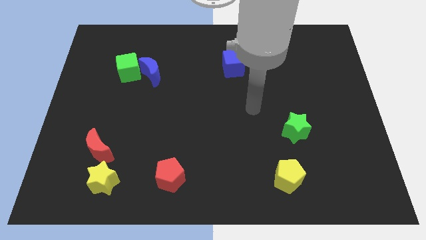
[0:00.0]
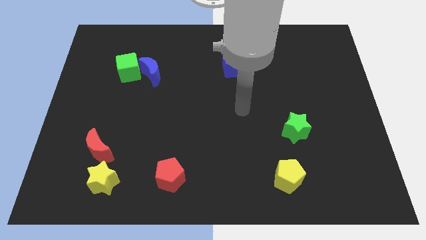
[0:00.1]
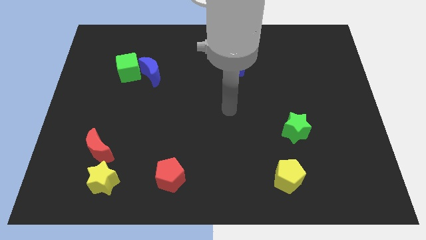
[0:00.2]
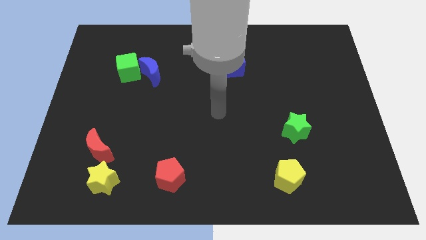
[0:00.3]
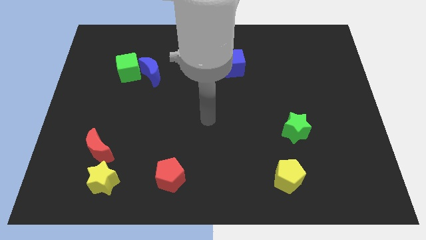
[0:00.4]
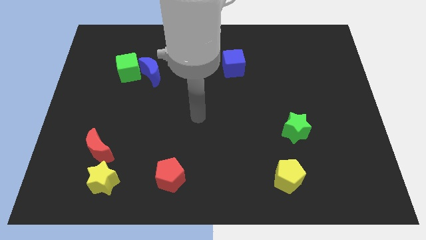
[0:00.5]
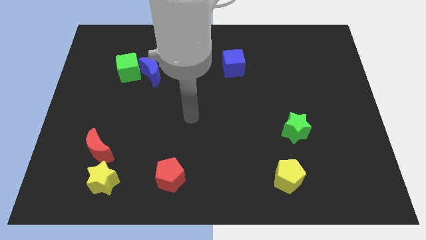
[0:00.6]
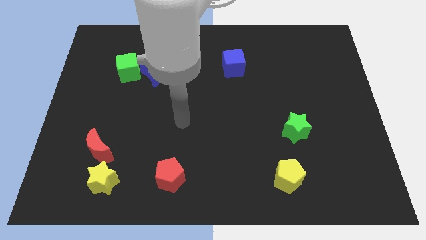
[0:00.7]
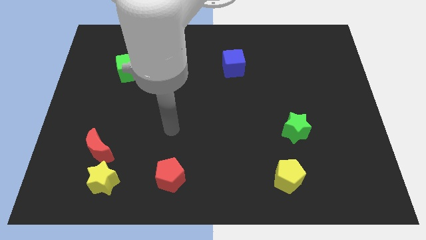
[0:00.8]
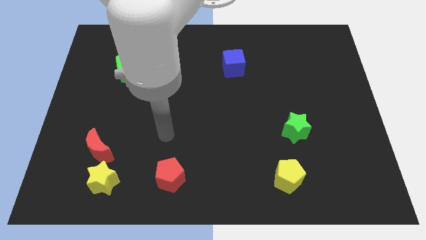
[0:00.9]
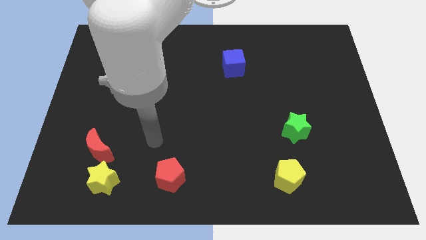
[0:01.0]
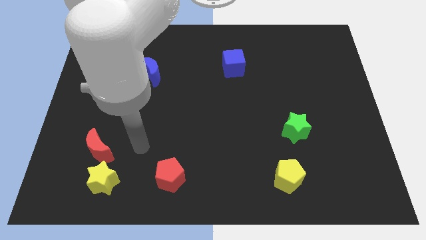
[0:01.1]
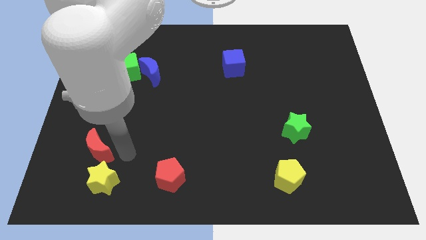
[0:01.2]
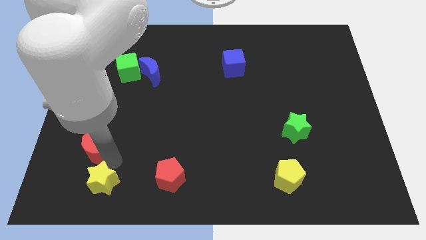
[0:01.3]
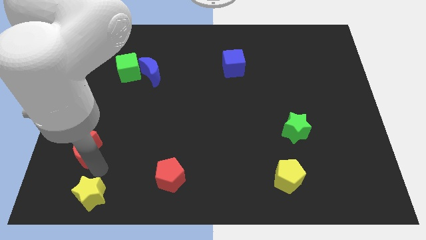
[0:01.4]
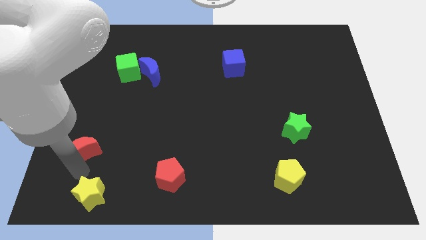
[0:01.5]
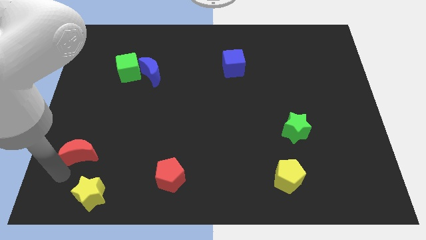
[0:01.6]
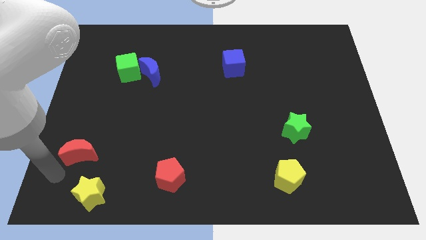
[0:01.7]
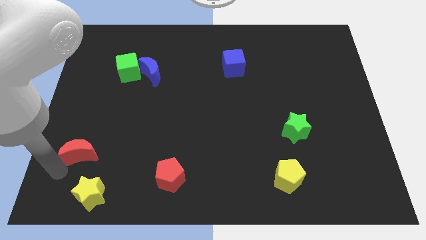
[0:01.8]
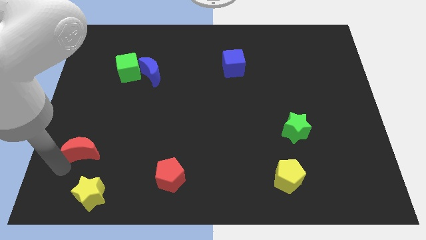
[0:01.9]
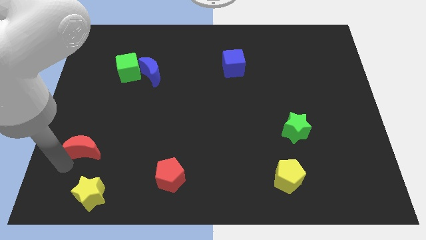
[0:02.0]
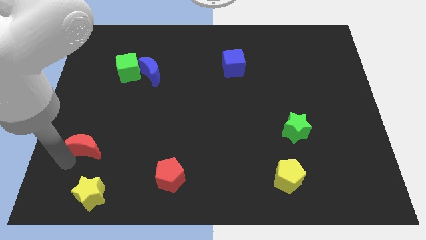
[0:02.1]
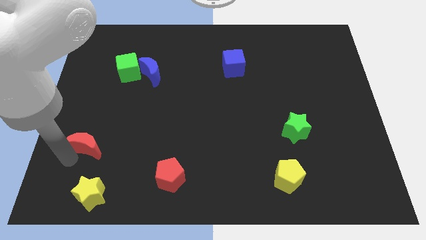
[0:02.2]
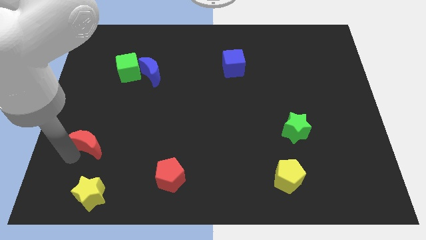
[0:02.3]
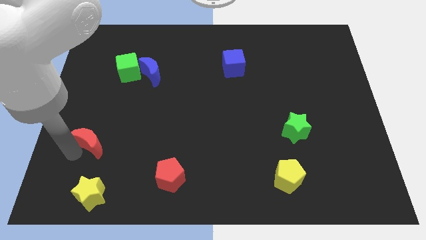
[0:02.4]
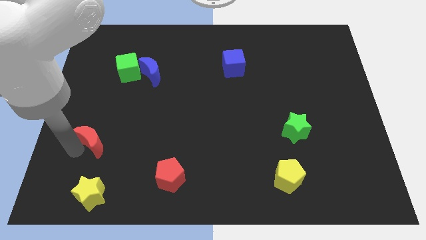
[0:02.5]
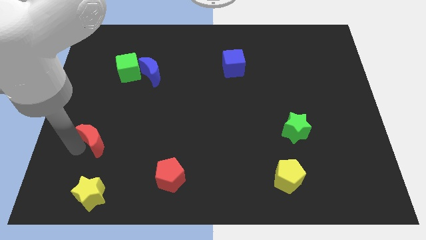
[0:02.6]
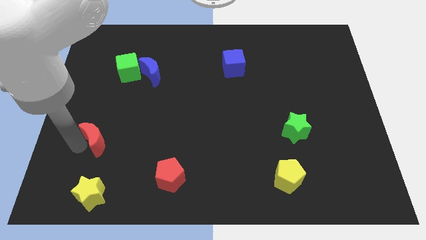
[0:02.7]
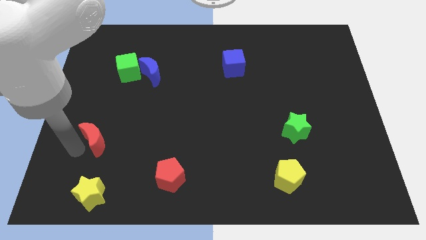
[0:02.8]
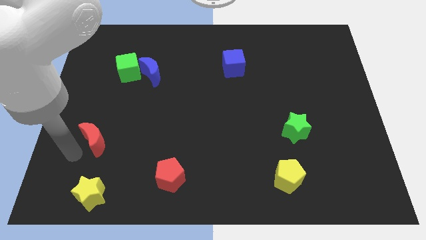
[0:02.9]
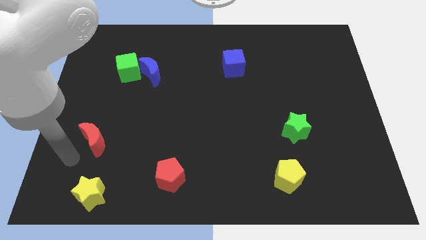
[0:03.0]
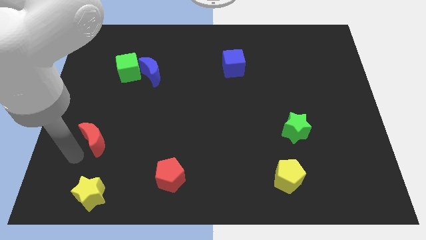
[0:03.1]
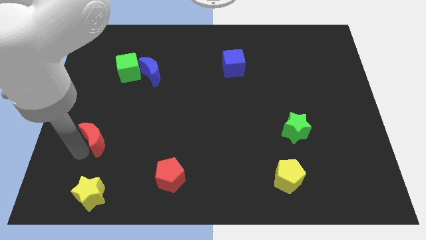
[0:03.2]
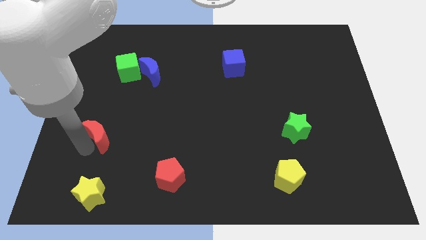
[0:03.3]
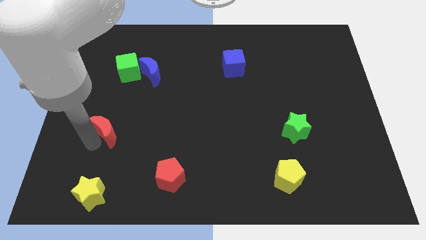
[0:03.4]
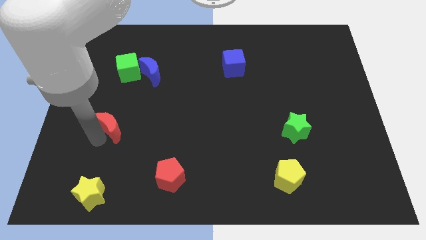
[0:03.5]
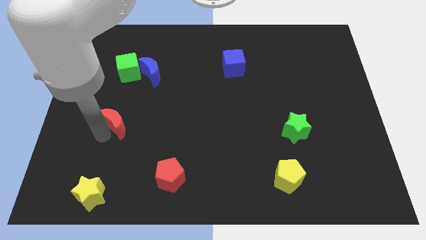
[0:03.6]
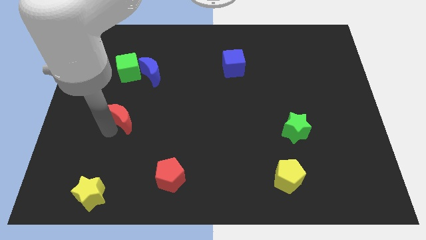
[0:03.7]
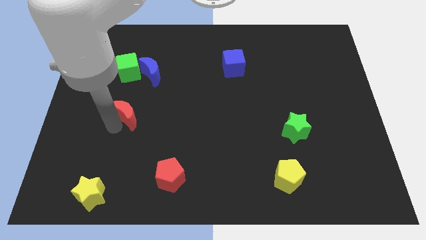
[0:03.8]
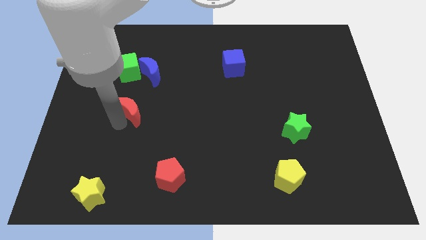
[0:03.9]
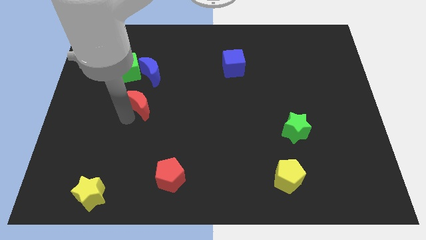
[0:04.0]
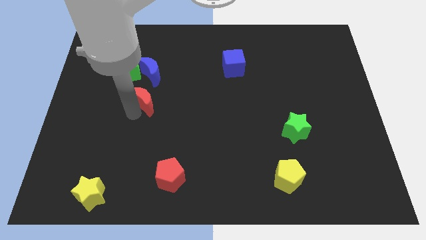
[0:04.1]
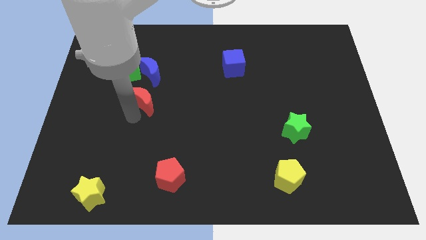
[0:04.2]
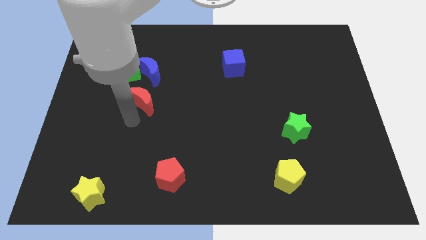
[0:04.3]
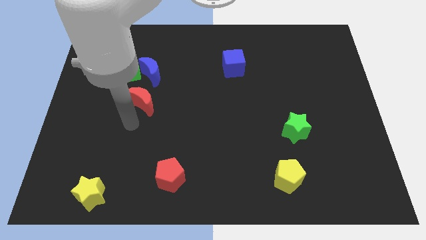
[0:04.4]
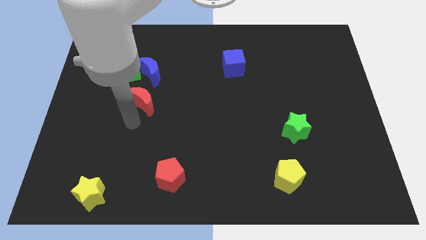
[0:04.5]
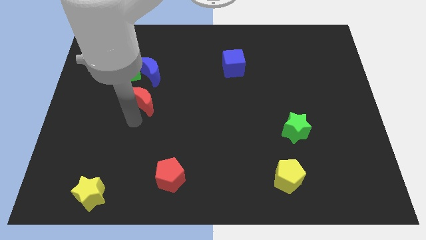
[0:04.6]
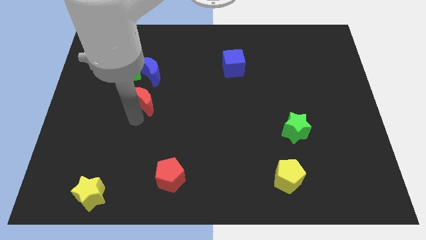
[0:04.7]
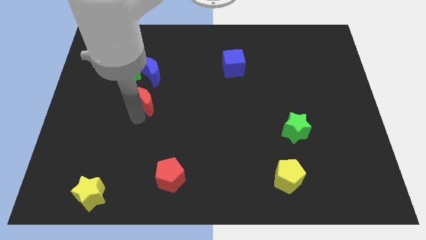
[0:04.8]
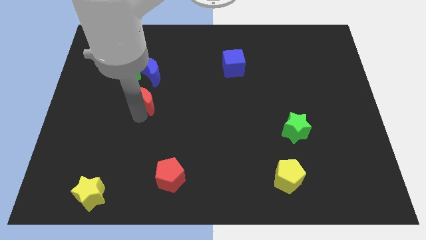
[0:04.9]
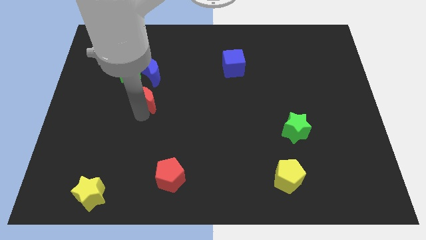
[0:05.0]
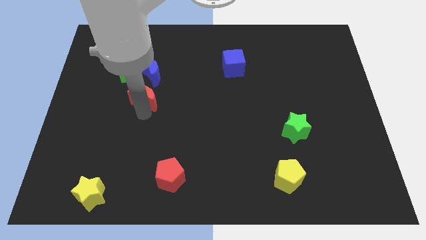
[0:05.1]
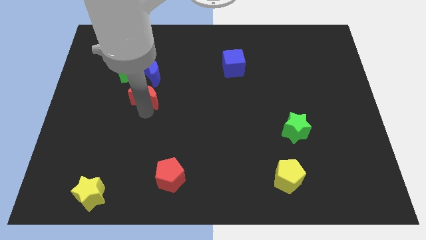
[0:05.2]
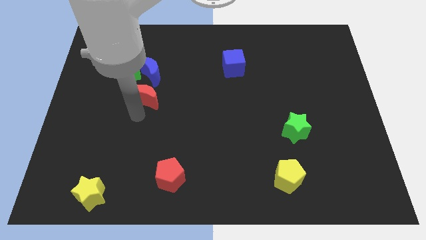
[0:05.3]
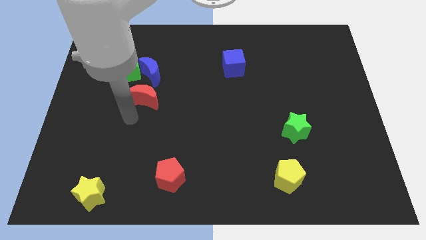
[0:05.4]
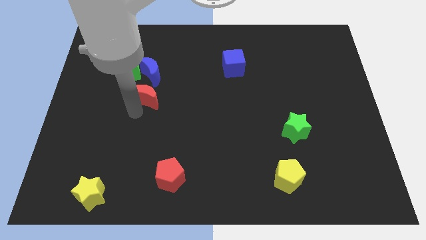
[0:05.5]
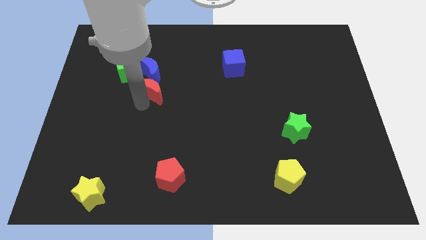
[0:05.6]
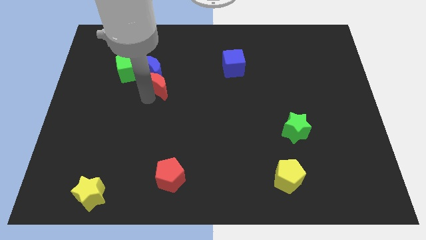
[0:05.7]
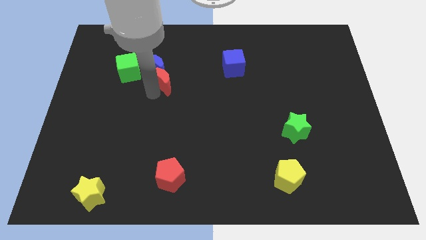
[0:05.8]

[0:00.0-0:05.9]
put the red moon to the right of the green cube

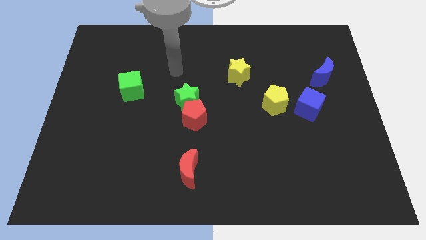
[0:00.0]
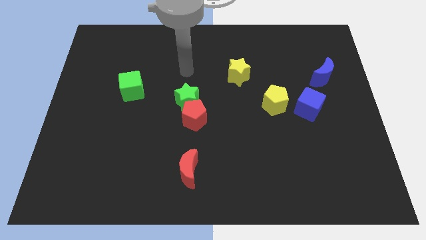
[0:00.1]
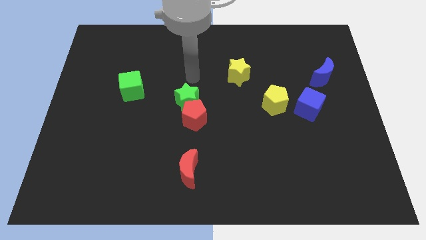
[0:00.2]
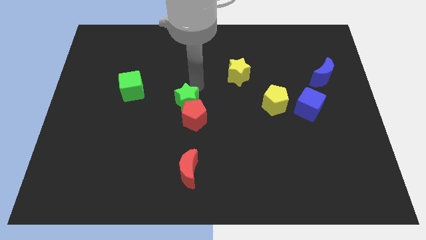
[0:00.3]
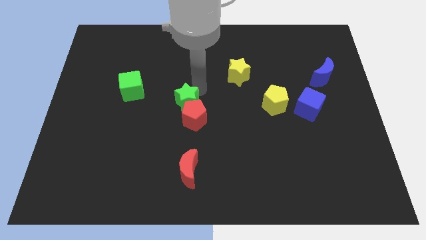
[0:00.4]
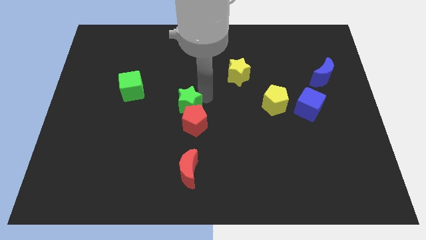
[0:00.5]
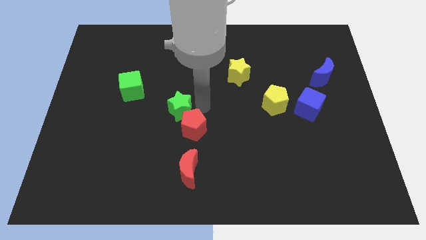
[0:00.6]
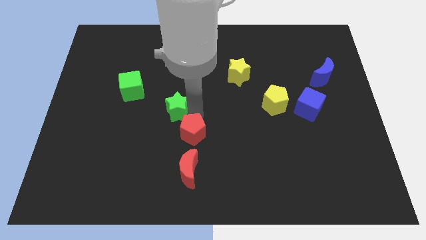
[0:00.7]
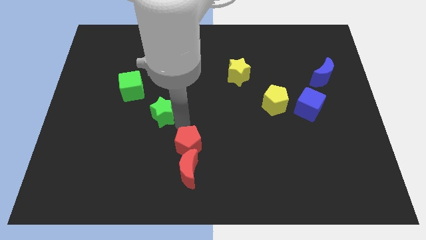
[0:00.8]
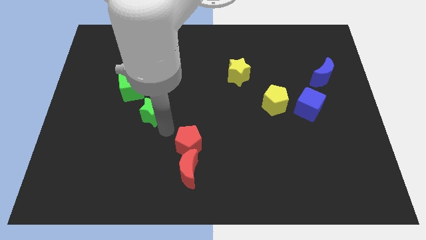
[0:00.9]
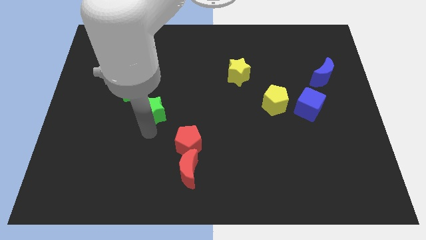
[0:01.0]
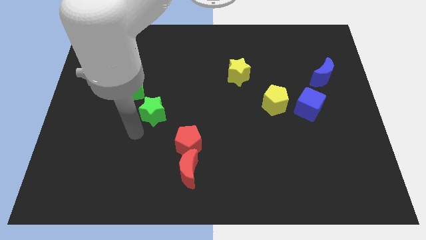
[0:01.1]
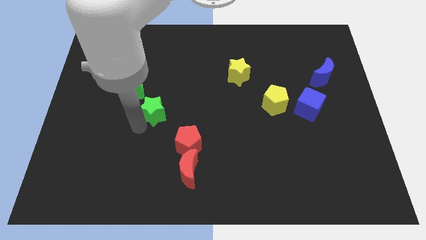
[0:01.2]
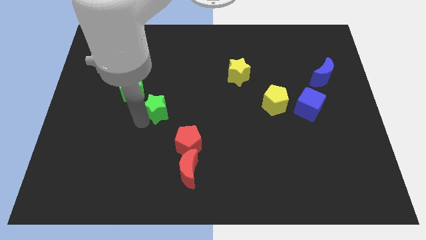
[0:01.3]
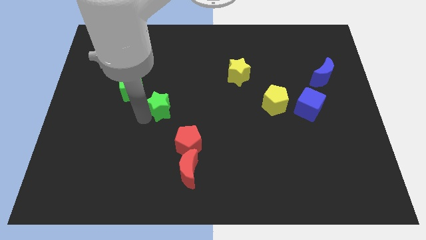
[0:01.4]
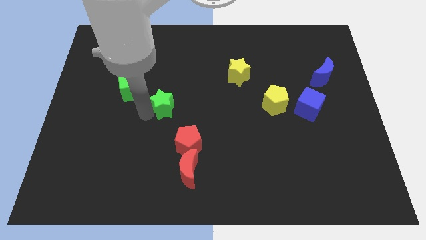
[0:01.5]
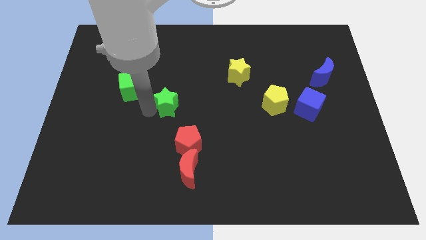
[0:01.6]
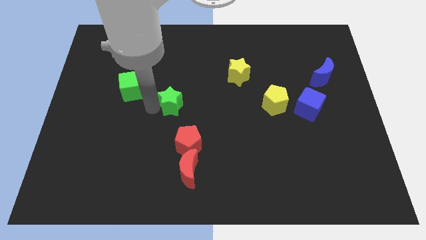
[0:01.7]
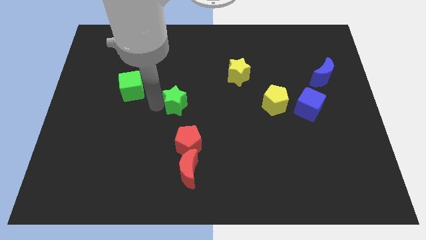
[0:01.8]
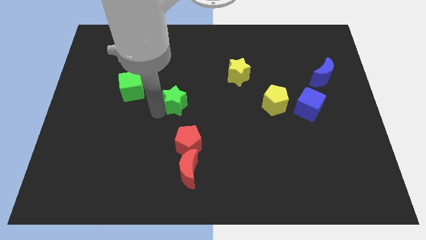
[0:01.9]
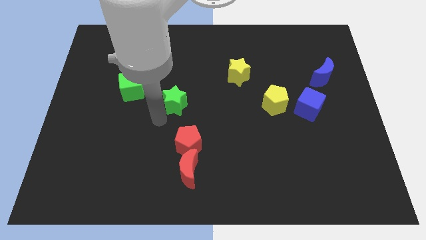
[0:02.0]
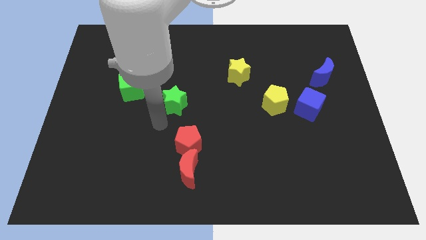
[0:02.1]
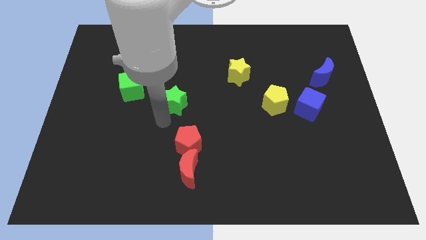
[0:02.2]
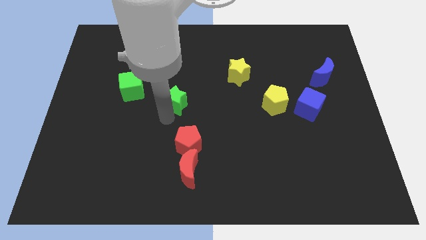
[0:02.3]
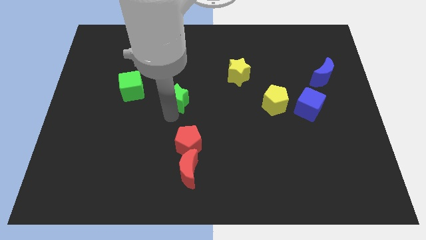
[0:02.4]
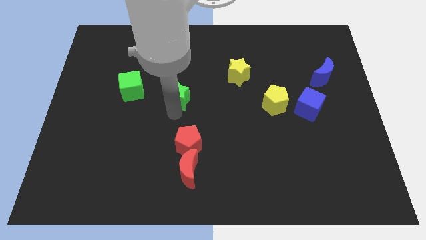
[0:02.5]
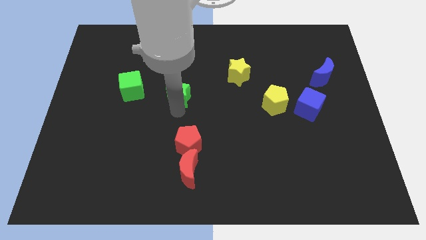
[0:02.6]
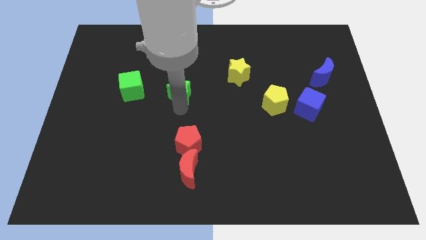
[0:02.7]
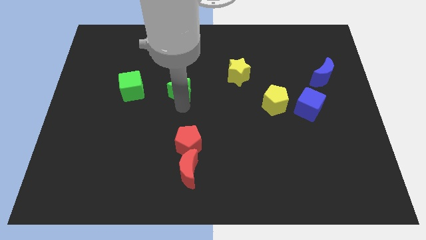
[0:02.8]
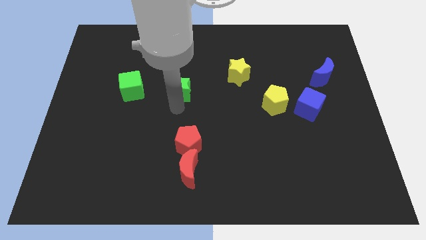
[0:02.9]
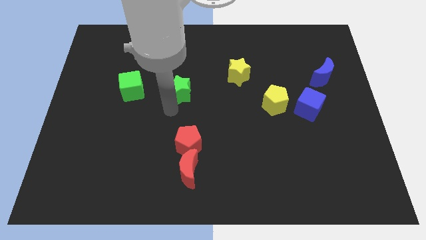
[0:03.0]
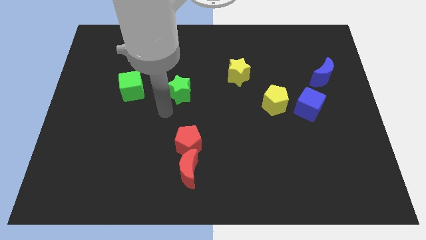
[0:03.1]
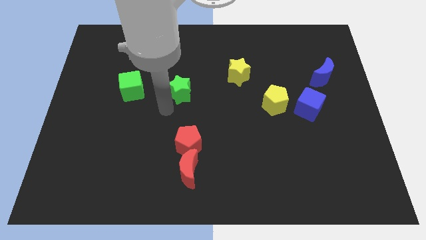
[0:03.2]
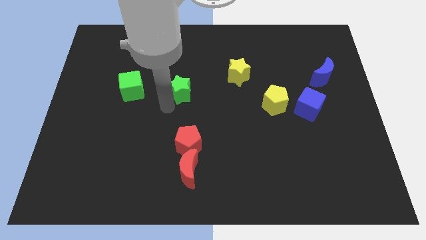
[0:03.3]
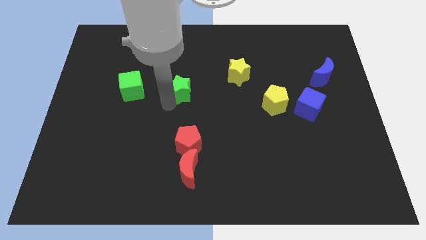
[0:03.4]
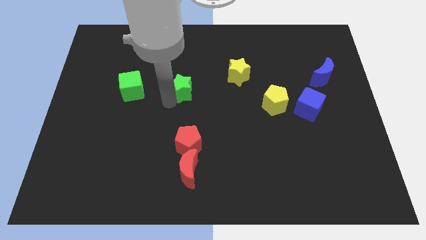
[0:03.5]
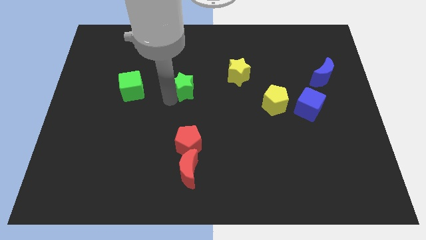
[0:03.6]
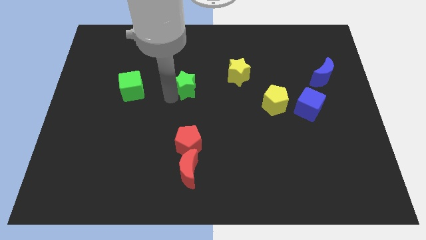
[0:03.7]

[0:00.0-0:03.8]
slide the green star to the left of the yellow star
